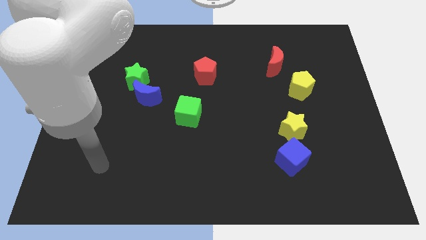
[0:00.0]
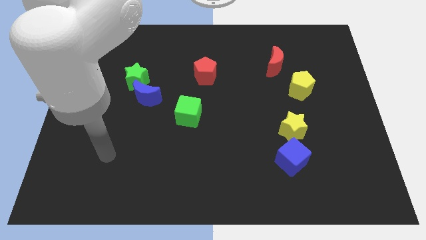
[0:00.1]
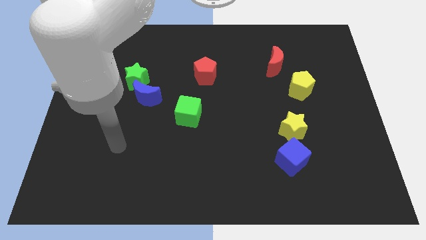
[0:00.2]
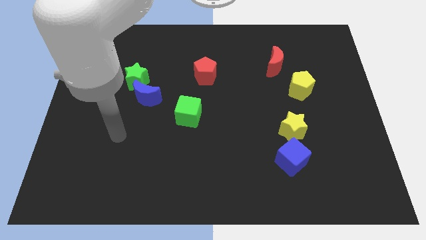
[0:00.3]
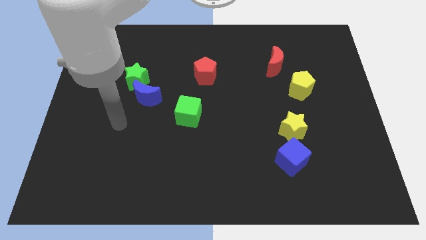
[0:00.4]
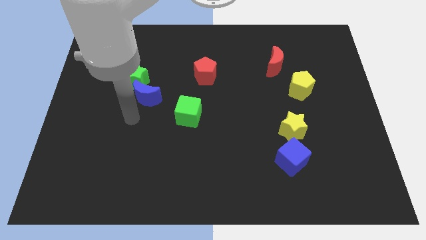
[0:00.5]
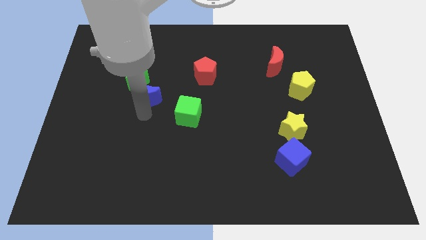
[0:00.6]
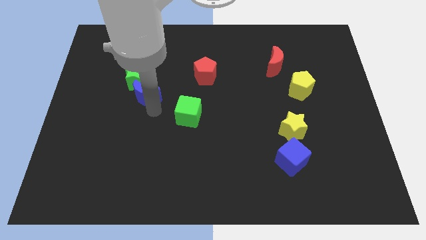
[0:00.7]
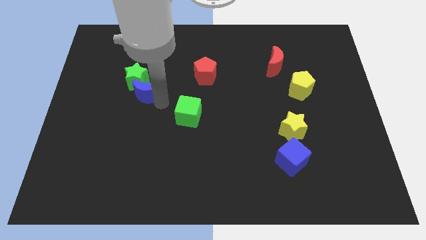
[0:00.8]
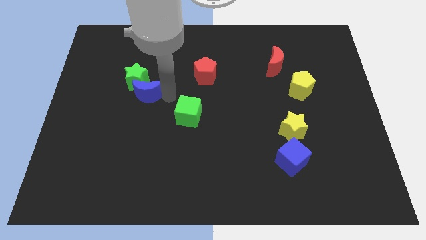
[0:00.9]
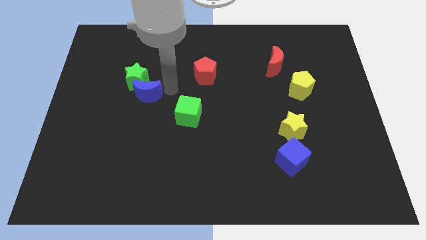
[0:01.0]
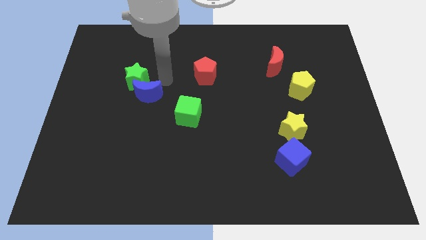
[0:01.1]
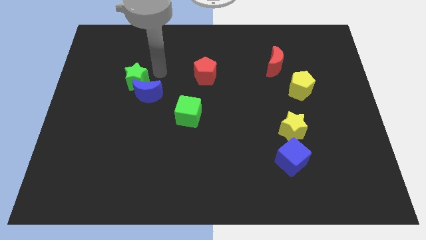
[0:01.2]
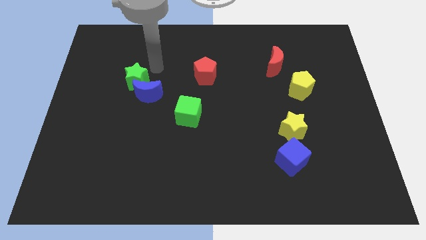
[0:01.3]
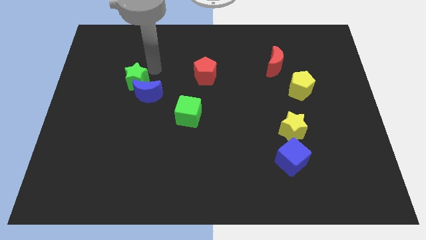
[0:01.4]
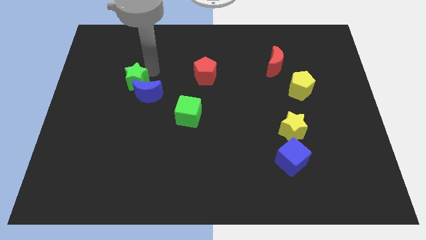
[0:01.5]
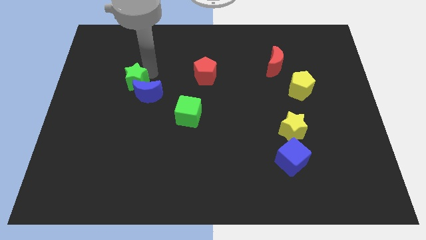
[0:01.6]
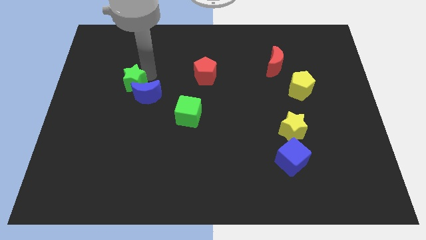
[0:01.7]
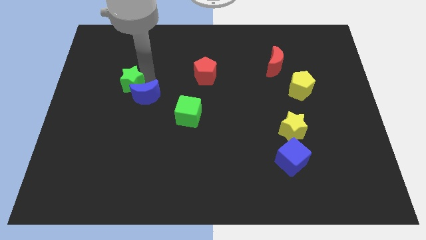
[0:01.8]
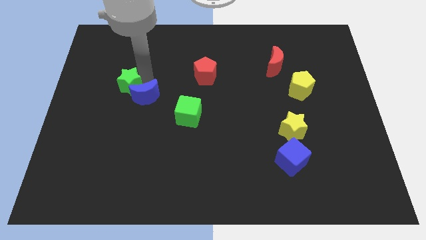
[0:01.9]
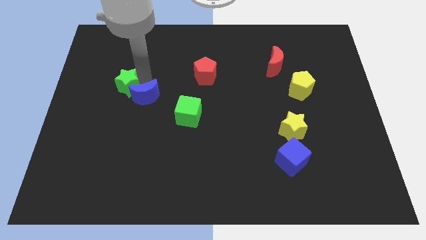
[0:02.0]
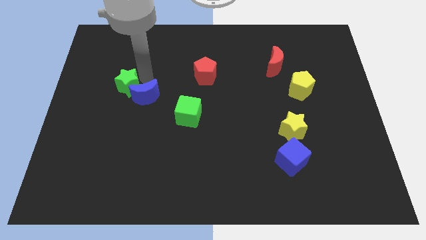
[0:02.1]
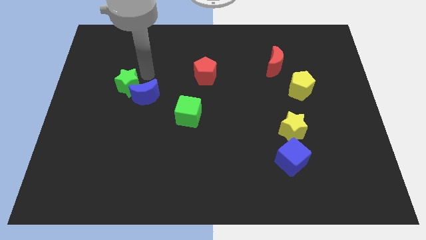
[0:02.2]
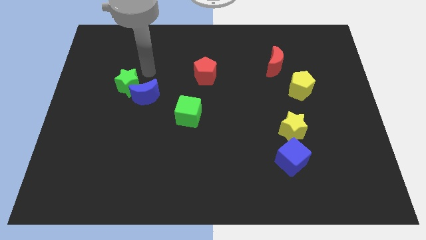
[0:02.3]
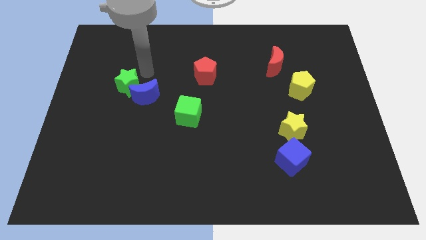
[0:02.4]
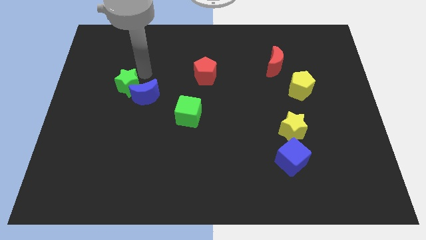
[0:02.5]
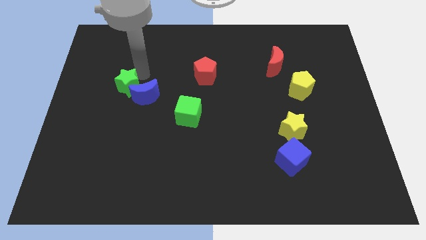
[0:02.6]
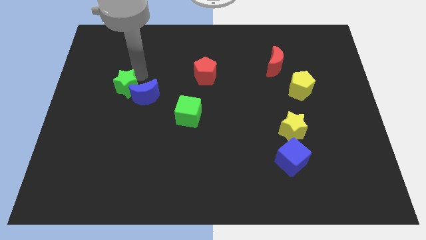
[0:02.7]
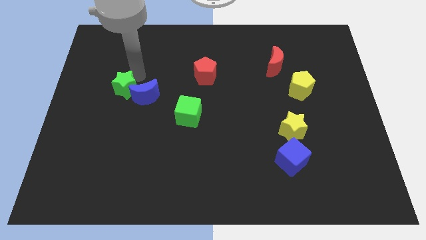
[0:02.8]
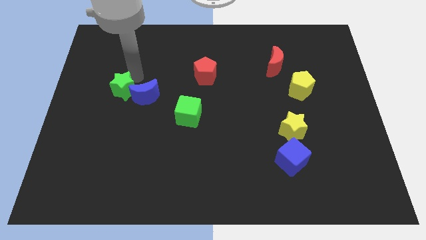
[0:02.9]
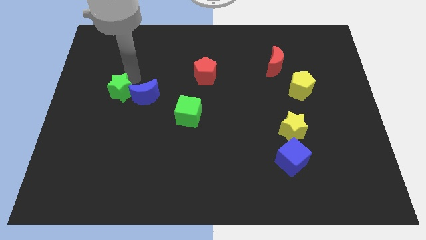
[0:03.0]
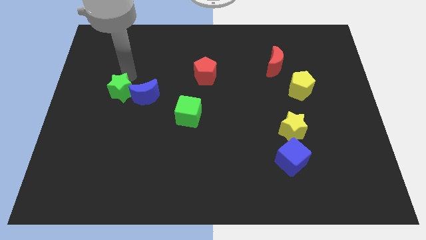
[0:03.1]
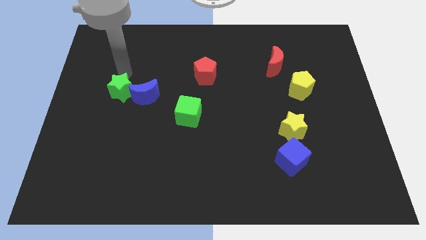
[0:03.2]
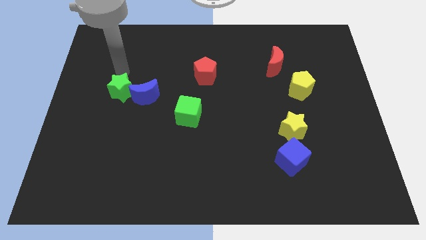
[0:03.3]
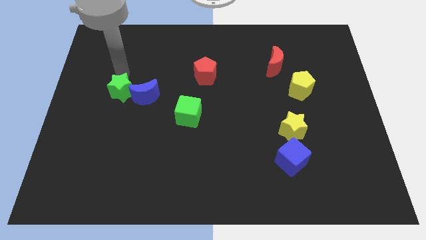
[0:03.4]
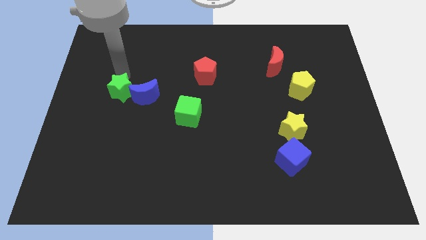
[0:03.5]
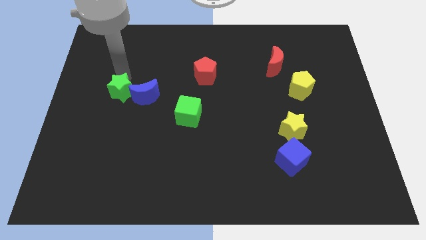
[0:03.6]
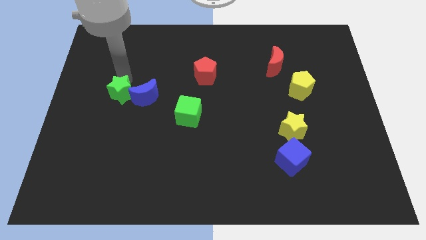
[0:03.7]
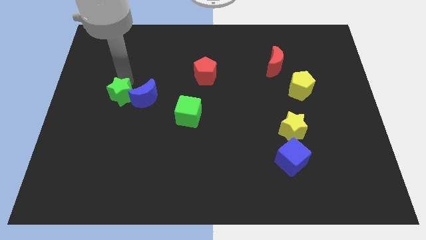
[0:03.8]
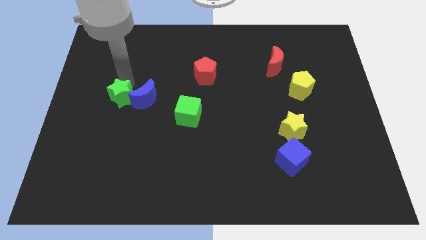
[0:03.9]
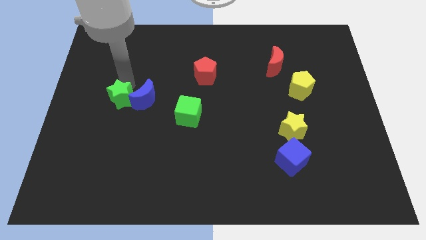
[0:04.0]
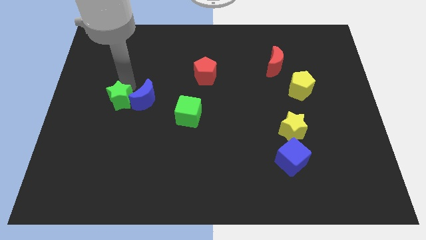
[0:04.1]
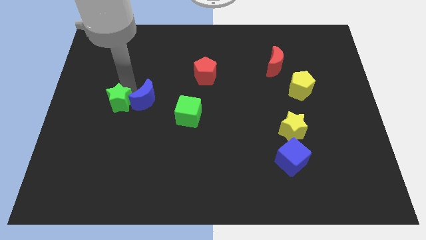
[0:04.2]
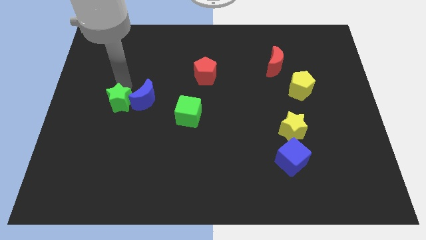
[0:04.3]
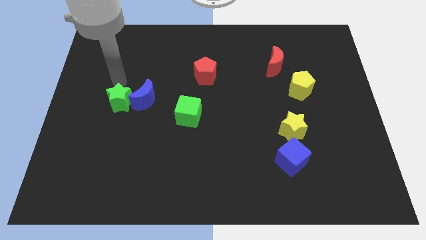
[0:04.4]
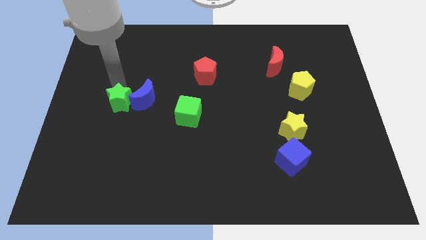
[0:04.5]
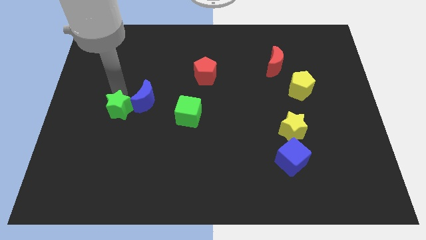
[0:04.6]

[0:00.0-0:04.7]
move the green star a little down

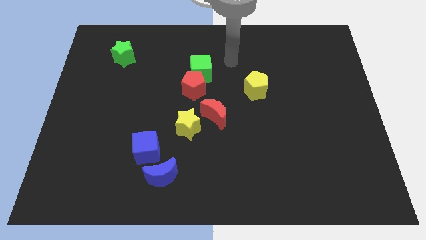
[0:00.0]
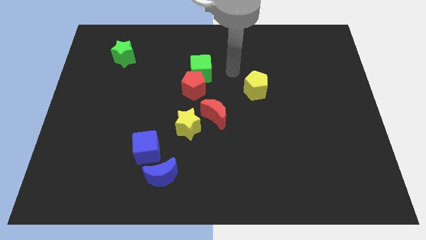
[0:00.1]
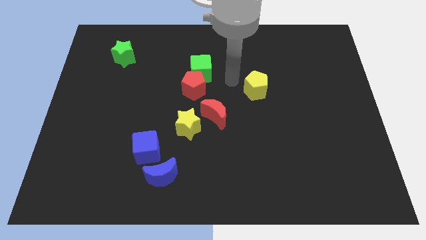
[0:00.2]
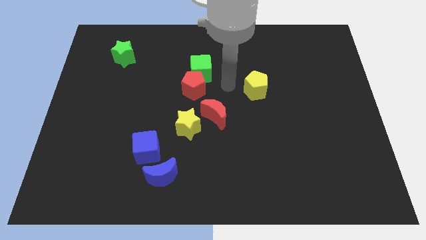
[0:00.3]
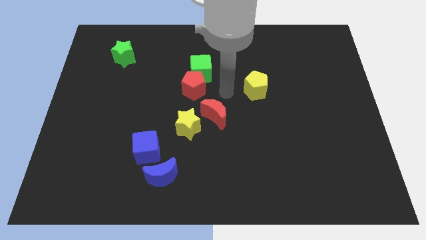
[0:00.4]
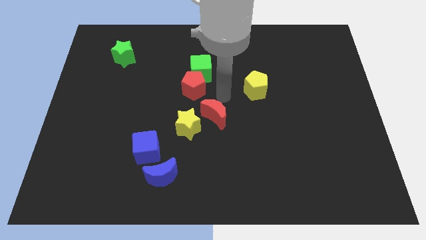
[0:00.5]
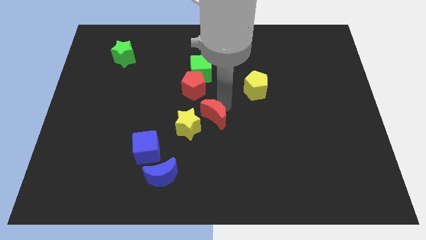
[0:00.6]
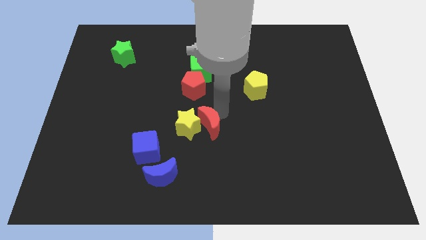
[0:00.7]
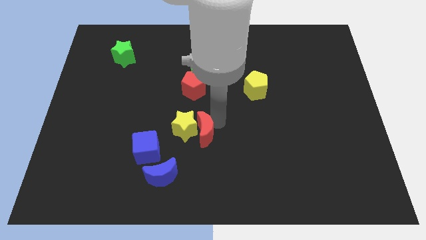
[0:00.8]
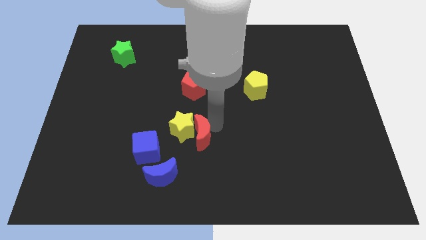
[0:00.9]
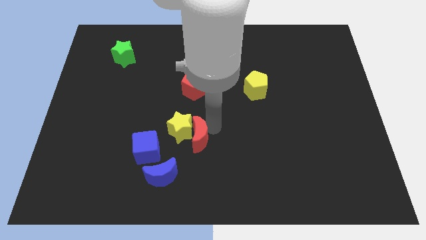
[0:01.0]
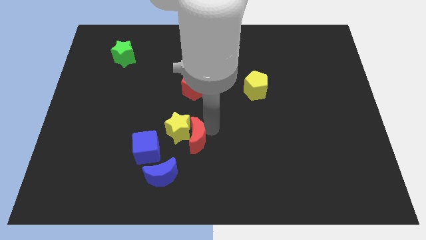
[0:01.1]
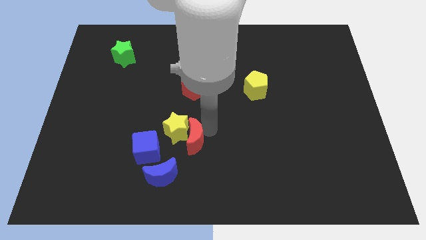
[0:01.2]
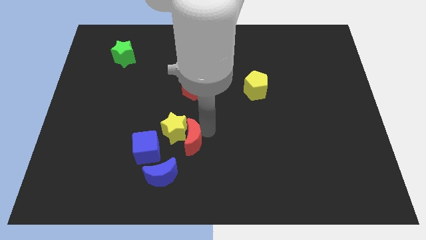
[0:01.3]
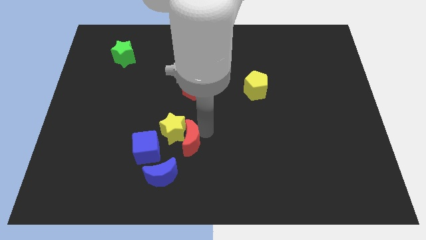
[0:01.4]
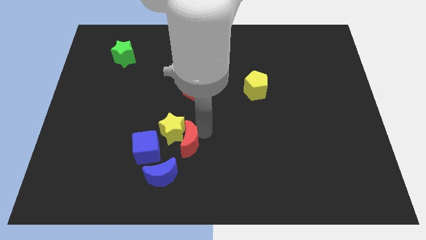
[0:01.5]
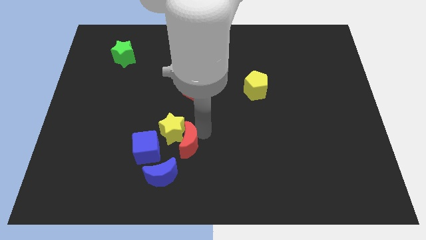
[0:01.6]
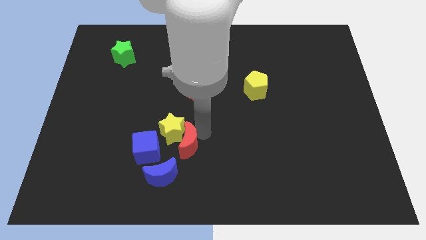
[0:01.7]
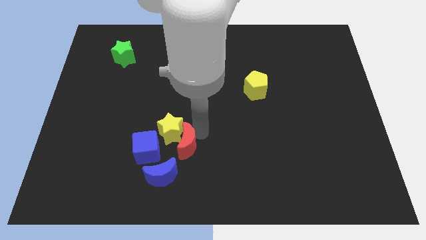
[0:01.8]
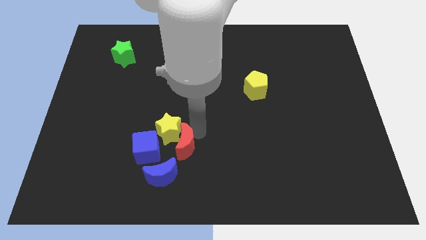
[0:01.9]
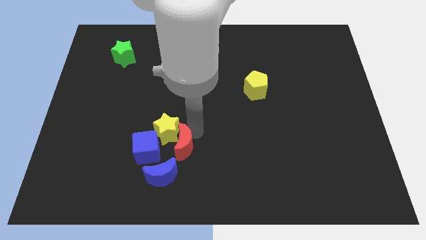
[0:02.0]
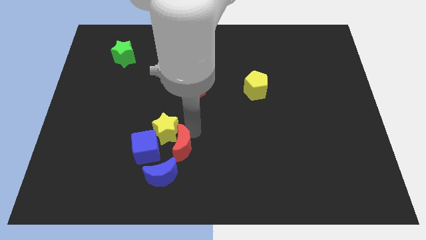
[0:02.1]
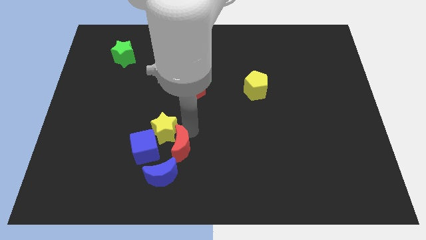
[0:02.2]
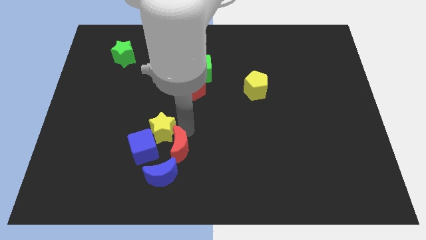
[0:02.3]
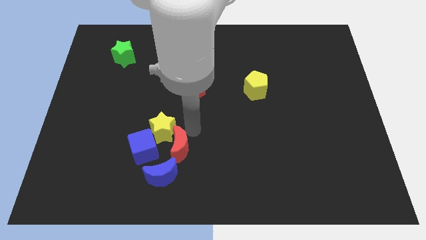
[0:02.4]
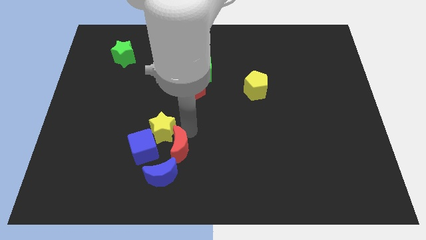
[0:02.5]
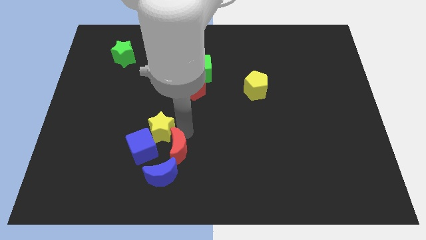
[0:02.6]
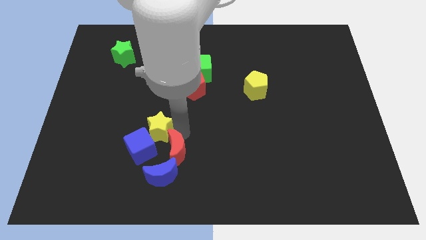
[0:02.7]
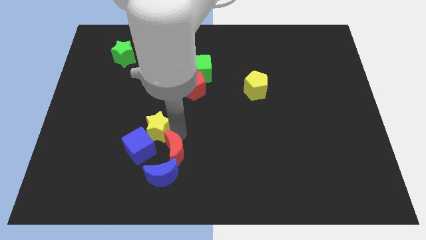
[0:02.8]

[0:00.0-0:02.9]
push the yellow star slightly left

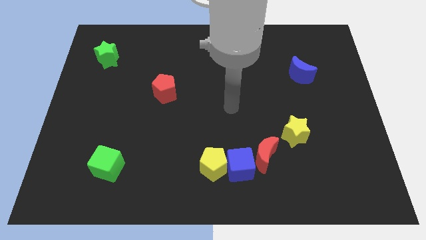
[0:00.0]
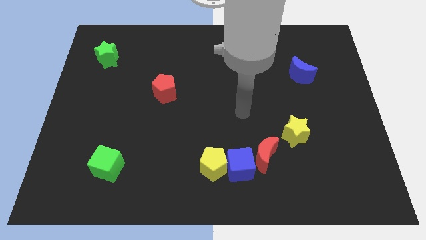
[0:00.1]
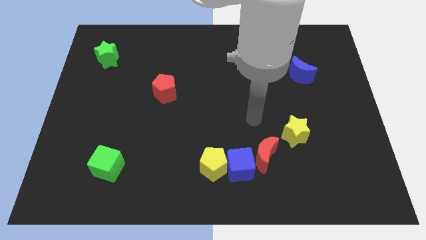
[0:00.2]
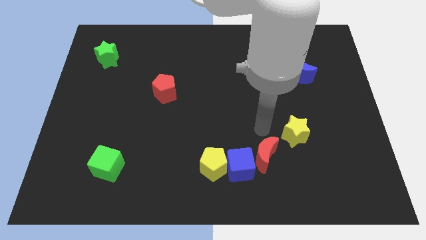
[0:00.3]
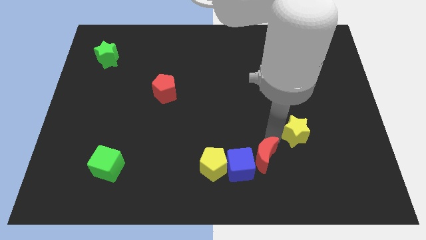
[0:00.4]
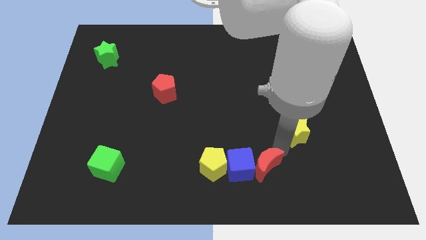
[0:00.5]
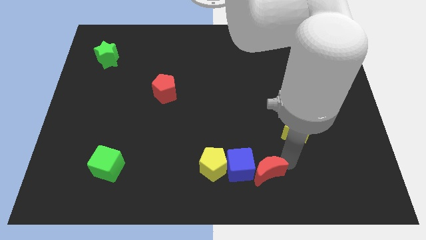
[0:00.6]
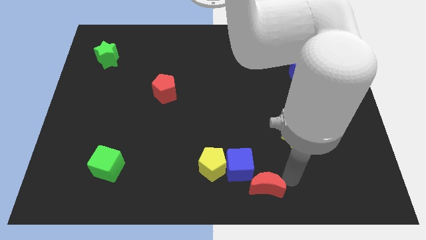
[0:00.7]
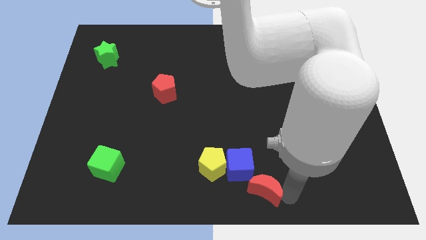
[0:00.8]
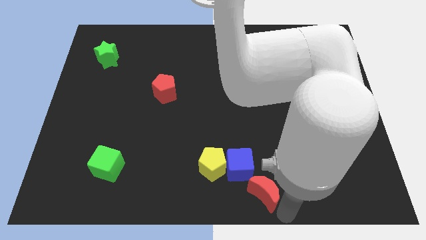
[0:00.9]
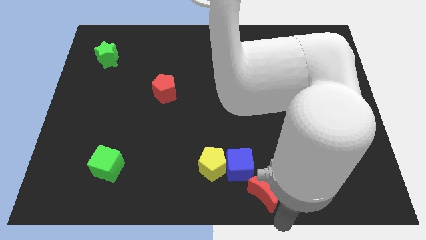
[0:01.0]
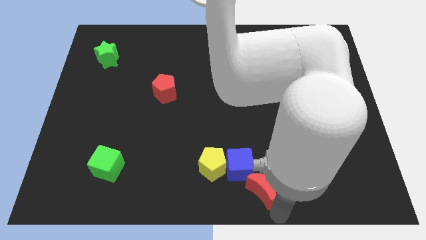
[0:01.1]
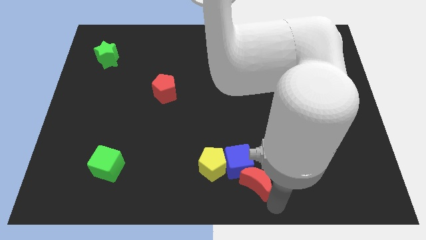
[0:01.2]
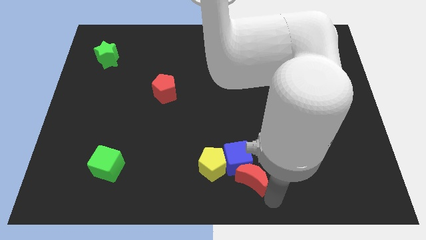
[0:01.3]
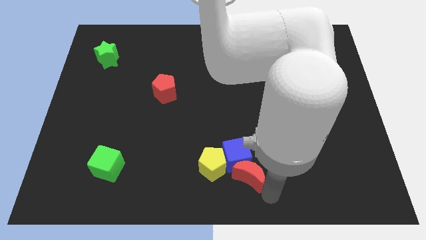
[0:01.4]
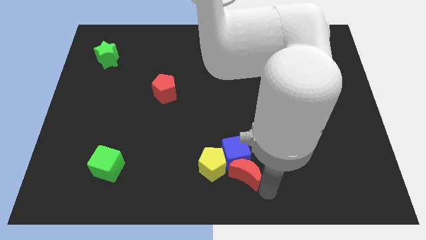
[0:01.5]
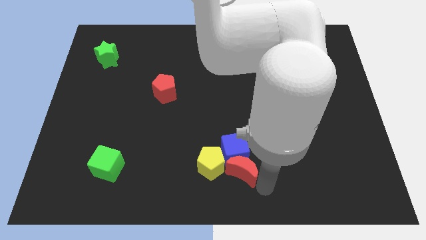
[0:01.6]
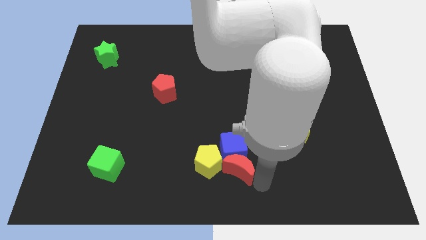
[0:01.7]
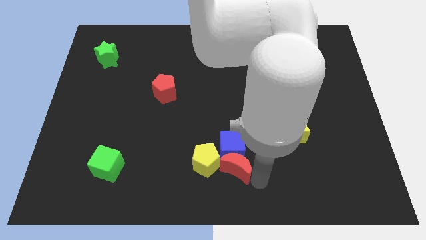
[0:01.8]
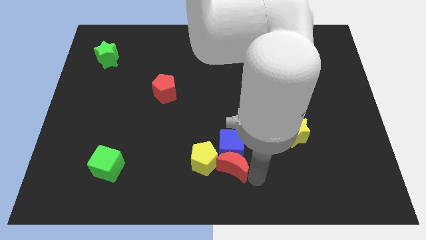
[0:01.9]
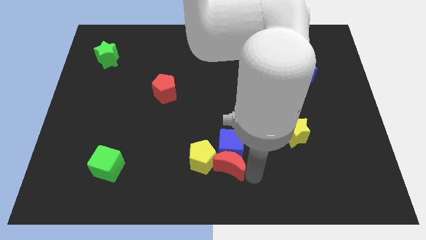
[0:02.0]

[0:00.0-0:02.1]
slightly slide the red moon left
